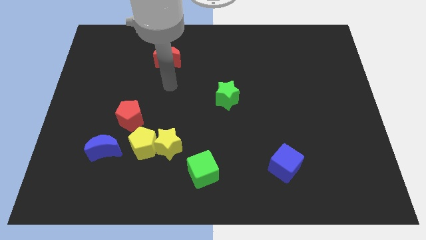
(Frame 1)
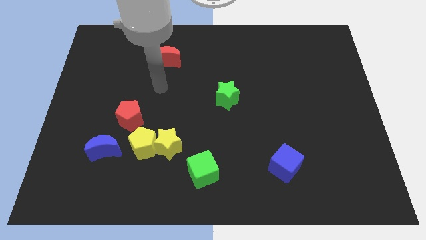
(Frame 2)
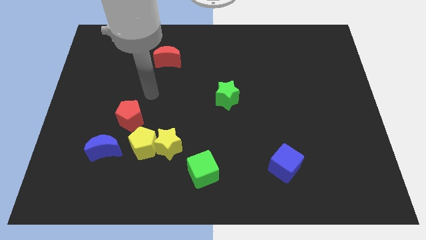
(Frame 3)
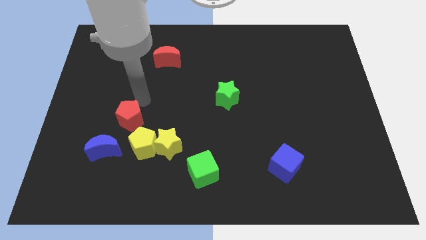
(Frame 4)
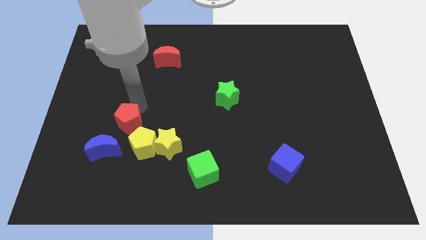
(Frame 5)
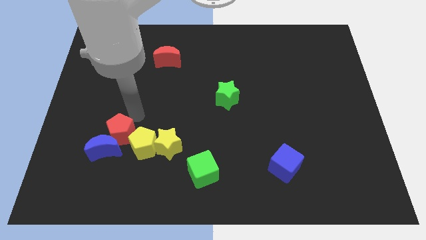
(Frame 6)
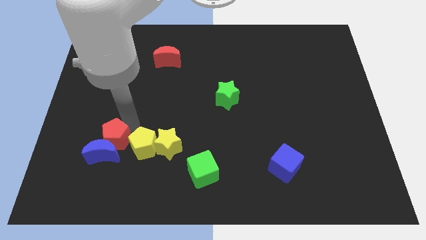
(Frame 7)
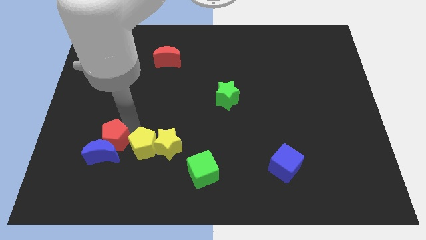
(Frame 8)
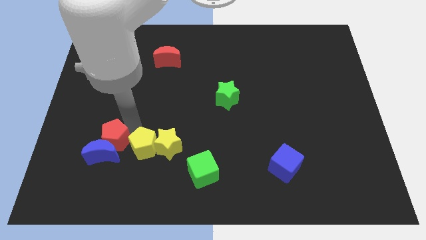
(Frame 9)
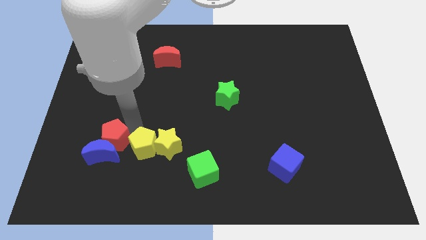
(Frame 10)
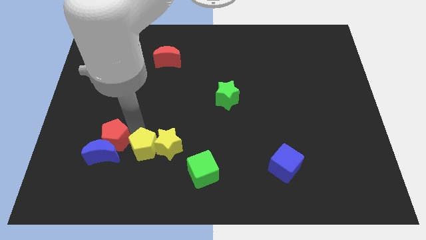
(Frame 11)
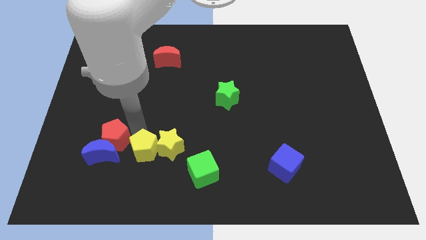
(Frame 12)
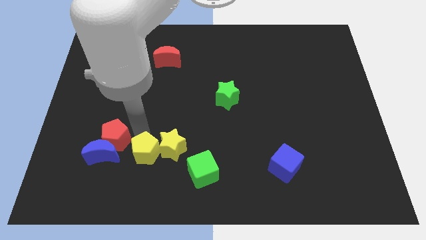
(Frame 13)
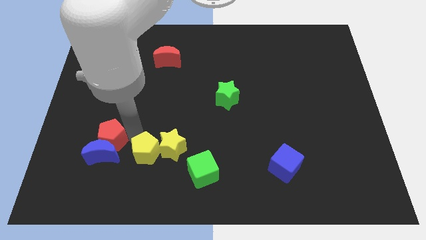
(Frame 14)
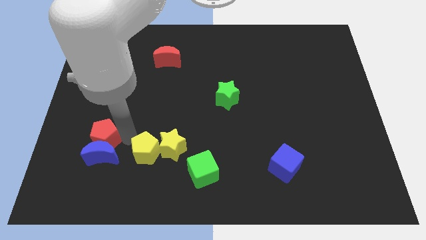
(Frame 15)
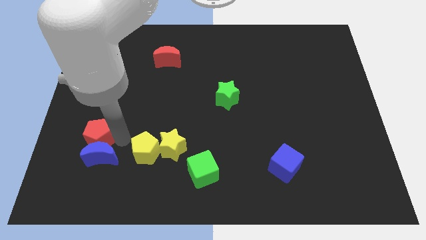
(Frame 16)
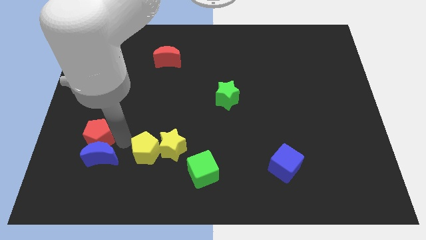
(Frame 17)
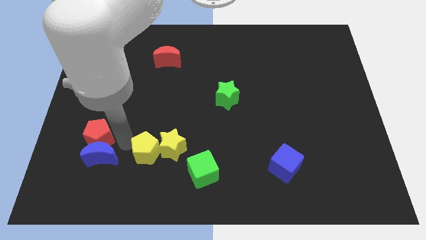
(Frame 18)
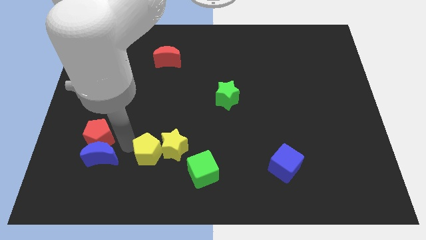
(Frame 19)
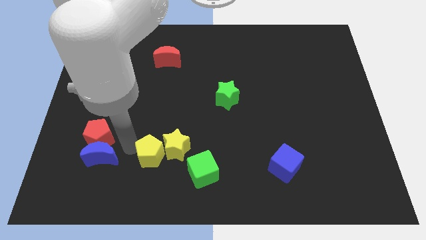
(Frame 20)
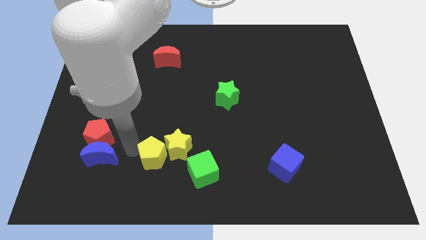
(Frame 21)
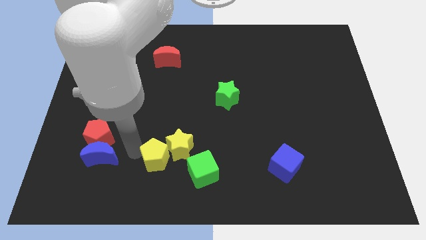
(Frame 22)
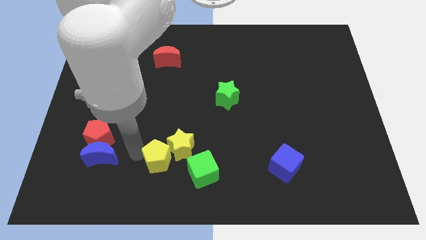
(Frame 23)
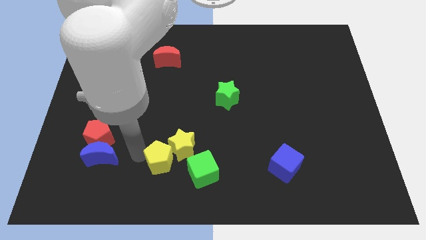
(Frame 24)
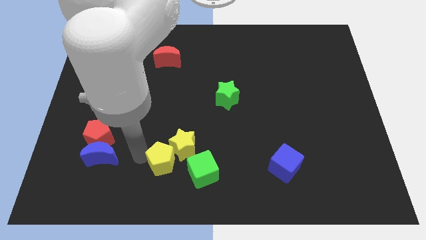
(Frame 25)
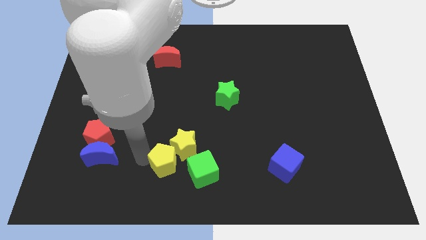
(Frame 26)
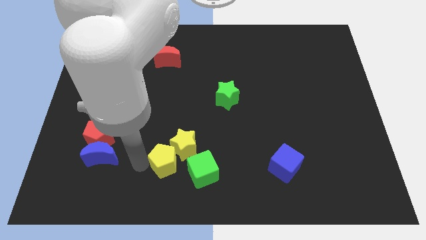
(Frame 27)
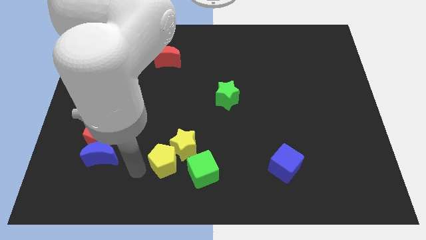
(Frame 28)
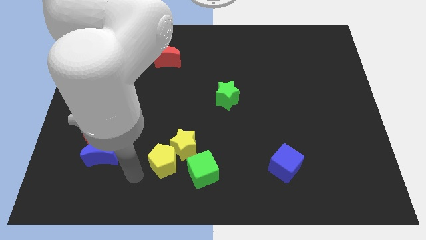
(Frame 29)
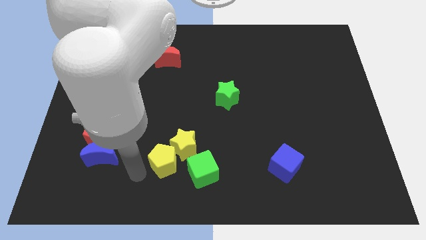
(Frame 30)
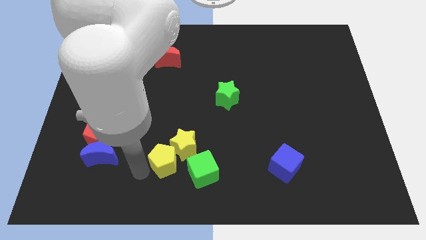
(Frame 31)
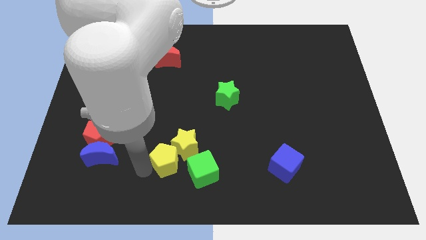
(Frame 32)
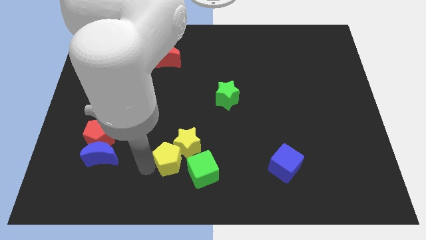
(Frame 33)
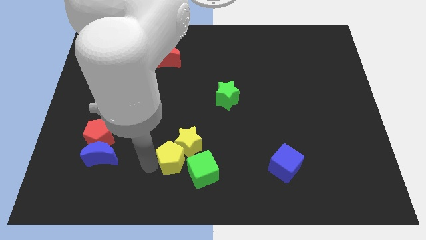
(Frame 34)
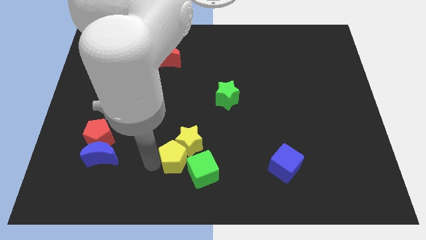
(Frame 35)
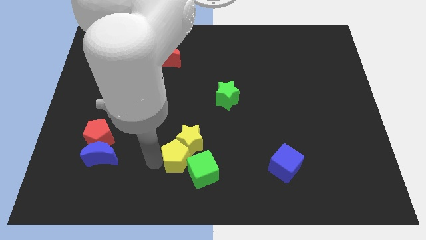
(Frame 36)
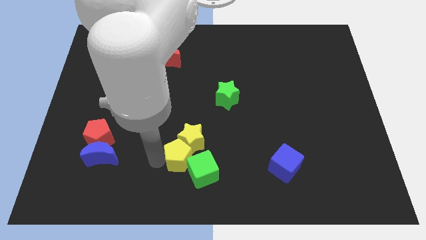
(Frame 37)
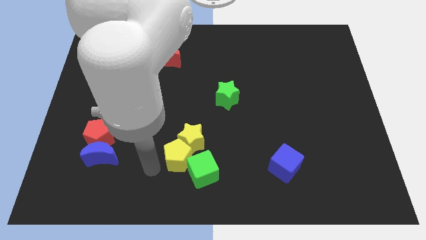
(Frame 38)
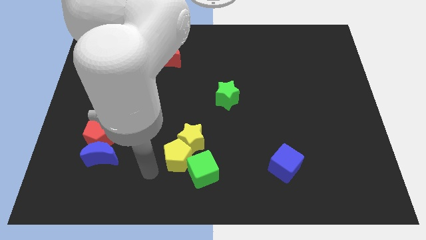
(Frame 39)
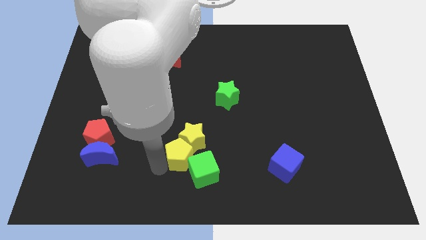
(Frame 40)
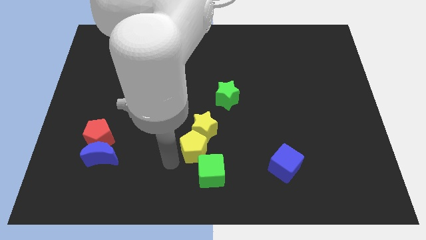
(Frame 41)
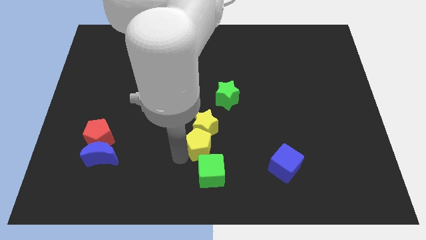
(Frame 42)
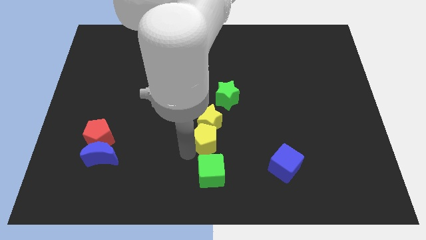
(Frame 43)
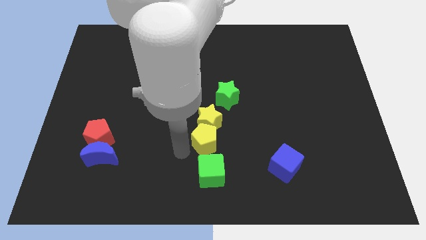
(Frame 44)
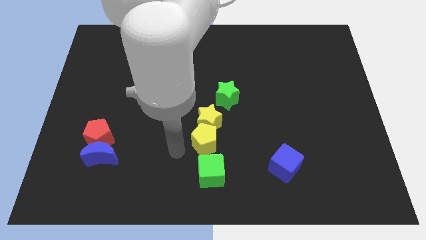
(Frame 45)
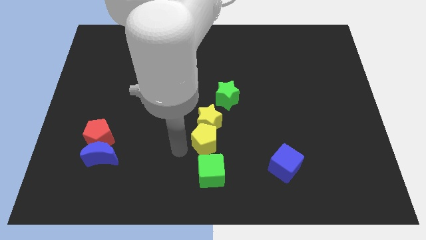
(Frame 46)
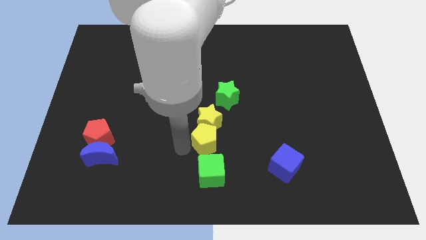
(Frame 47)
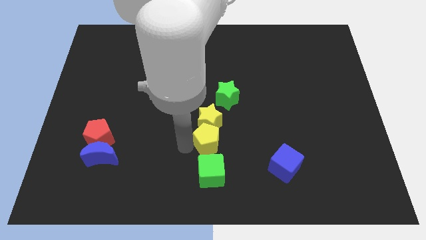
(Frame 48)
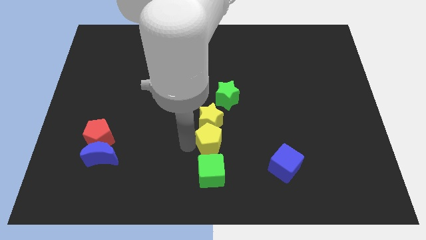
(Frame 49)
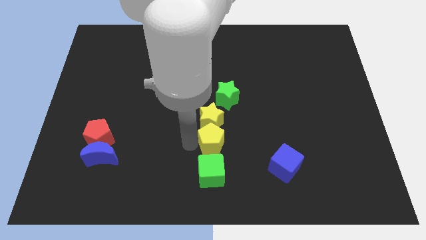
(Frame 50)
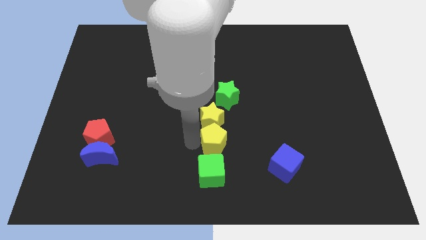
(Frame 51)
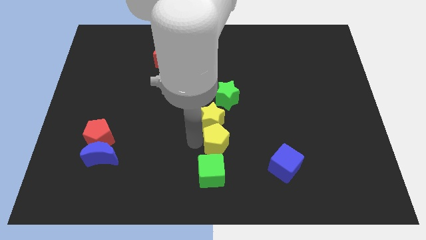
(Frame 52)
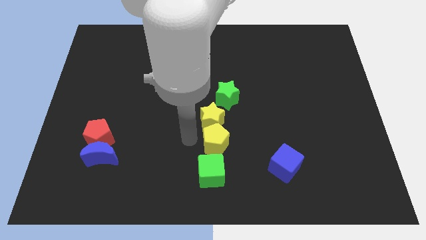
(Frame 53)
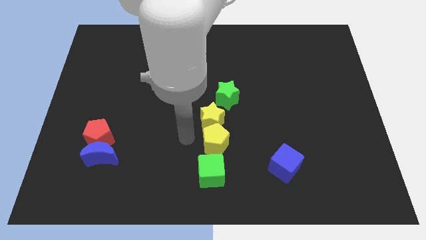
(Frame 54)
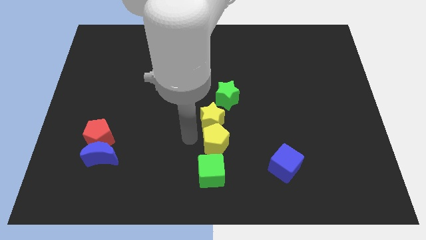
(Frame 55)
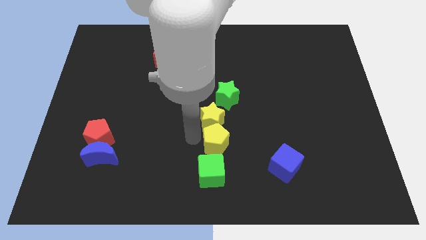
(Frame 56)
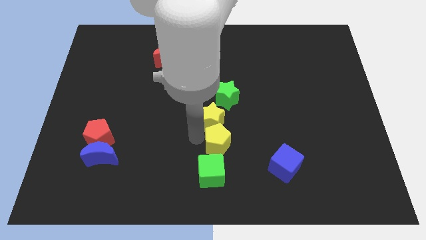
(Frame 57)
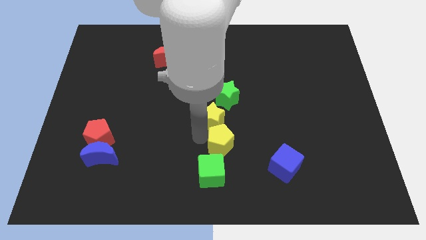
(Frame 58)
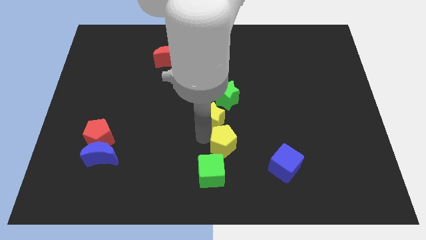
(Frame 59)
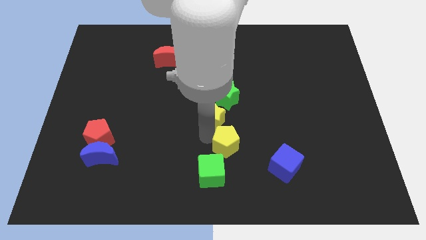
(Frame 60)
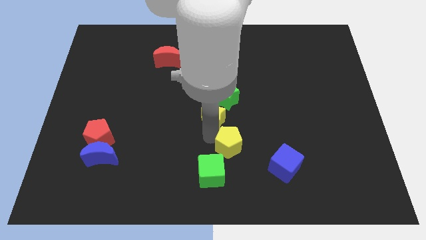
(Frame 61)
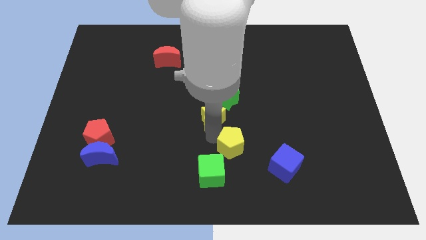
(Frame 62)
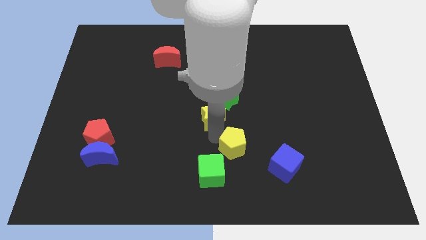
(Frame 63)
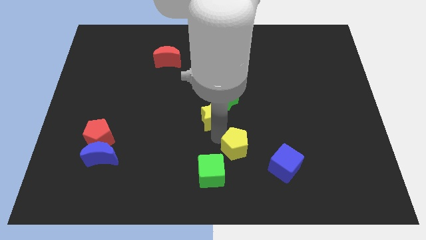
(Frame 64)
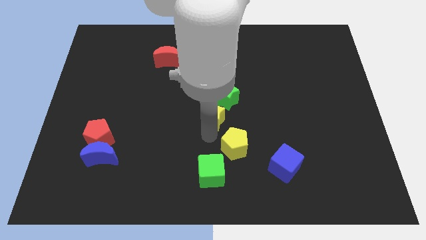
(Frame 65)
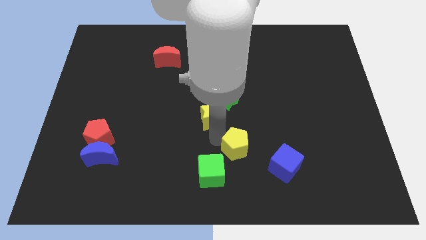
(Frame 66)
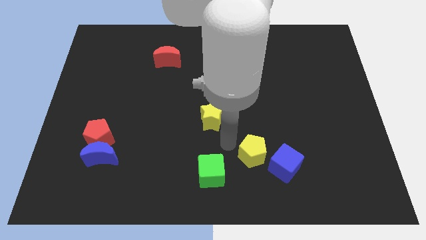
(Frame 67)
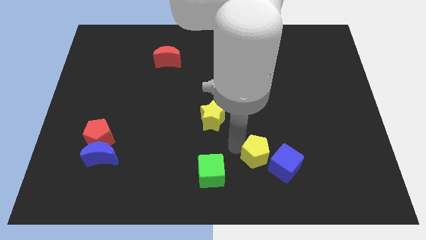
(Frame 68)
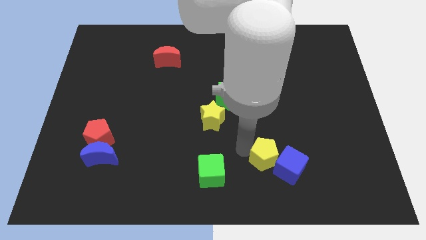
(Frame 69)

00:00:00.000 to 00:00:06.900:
push the yellow pentagon towards the blue cube
